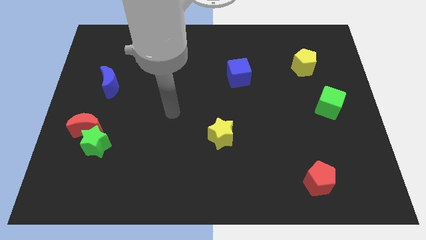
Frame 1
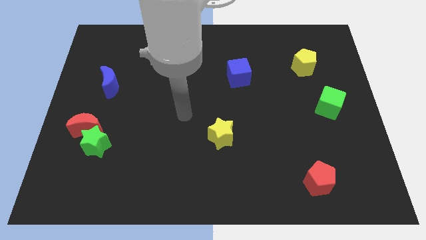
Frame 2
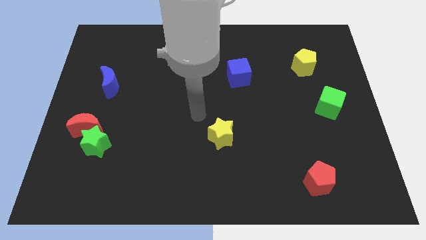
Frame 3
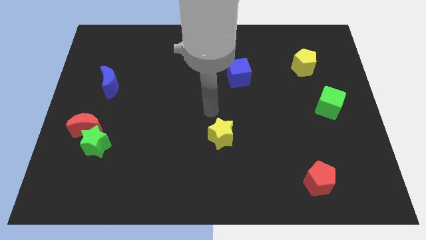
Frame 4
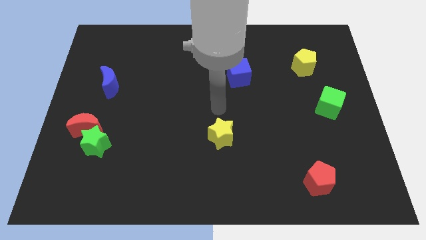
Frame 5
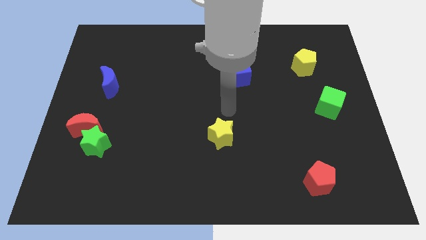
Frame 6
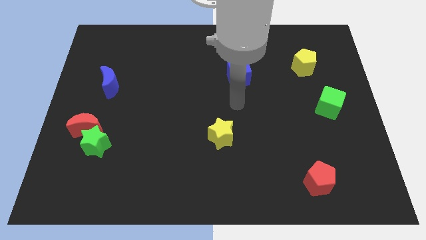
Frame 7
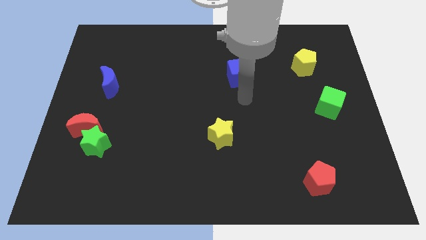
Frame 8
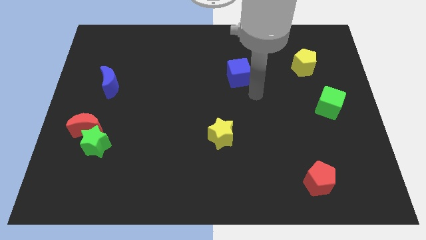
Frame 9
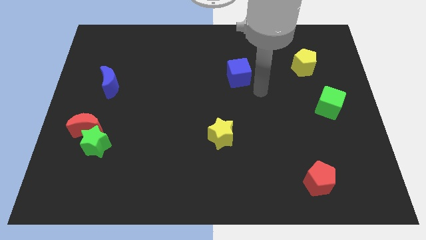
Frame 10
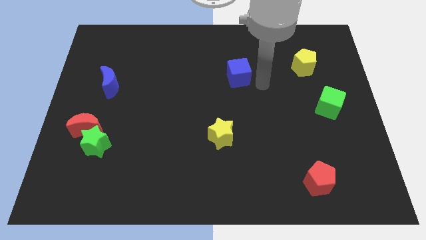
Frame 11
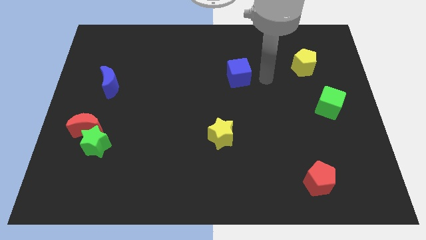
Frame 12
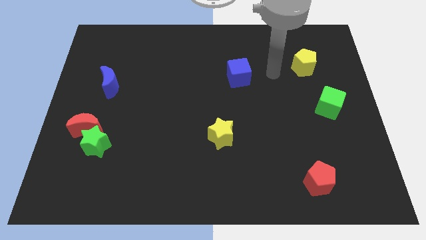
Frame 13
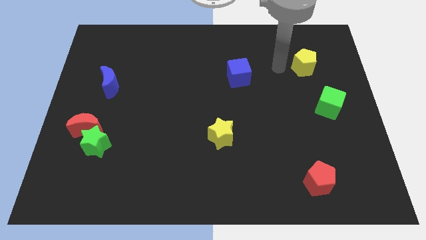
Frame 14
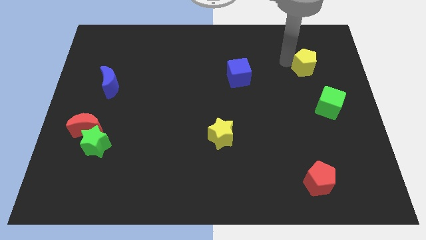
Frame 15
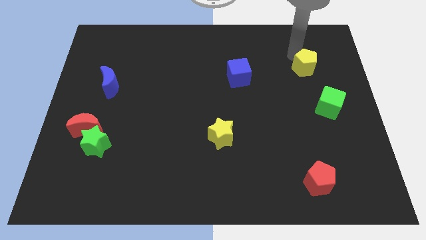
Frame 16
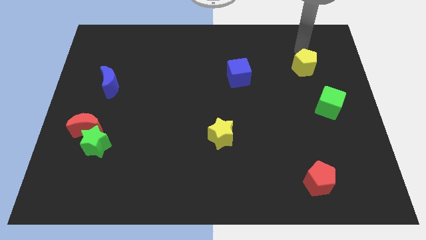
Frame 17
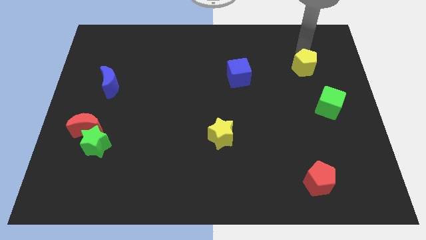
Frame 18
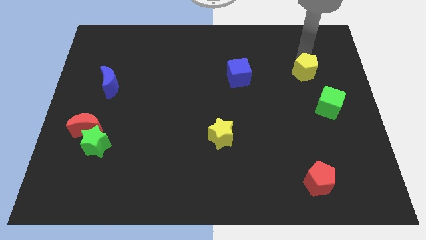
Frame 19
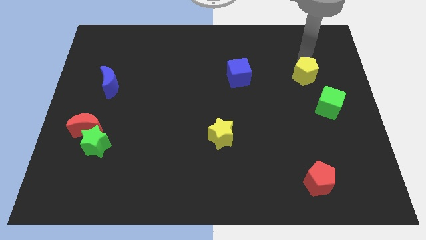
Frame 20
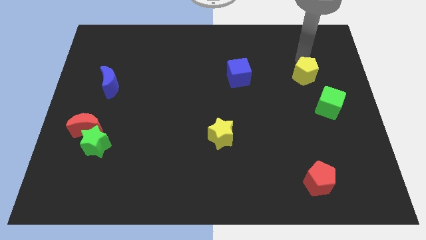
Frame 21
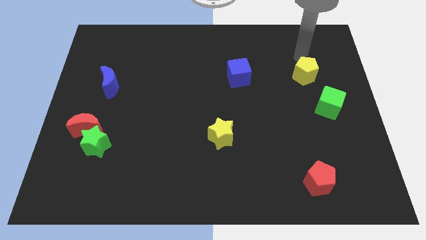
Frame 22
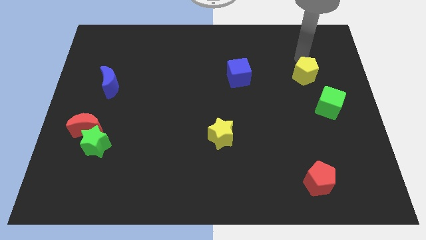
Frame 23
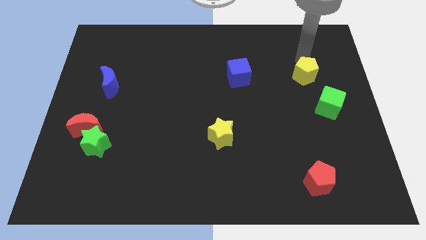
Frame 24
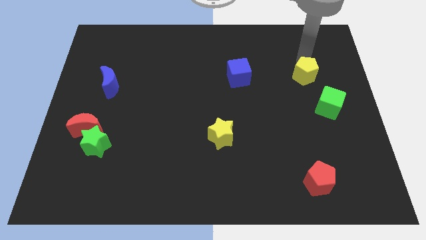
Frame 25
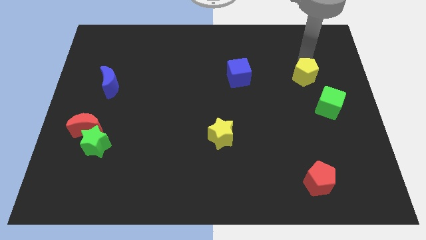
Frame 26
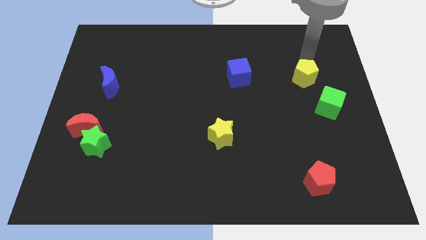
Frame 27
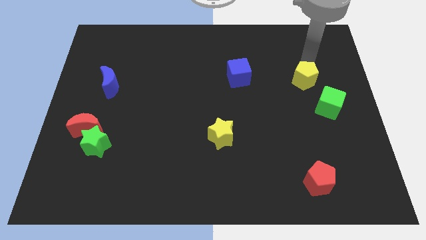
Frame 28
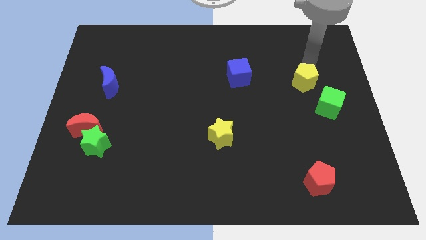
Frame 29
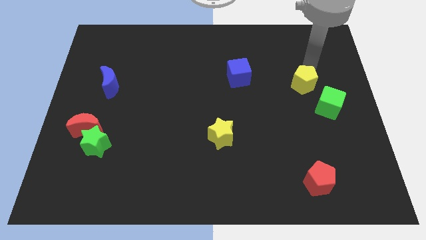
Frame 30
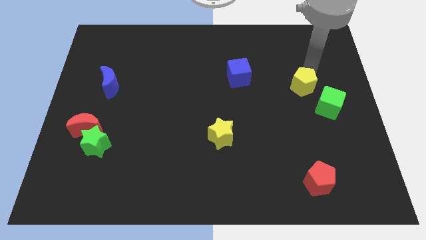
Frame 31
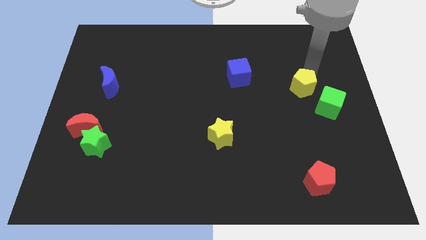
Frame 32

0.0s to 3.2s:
slide the yellow pentagon somewhat downwards

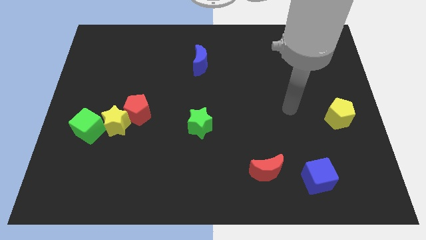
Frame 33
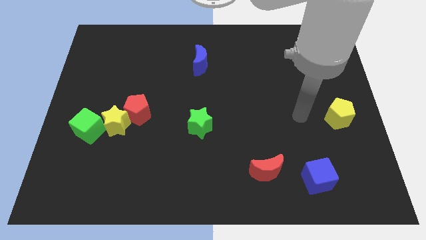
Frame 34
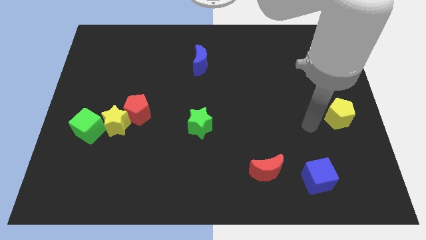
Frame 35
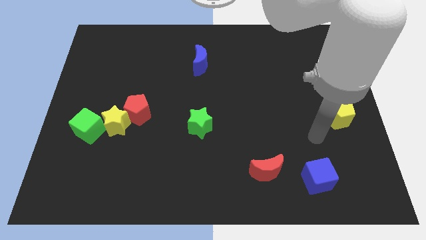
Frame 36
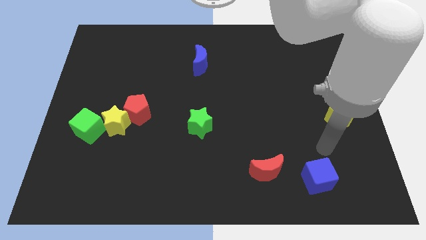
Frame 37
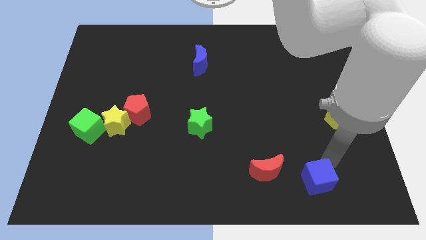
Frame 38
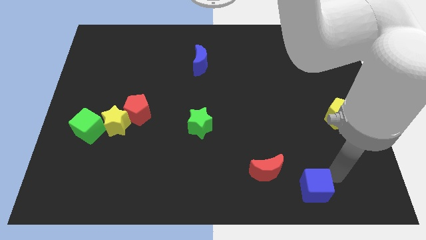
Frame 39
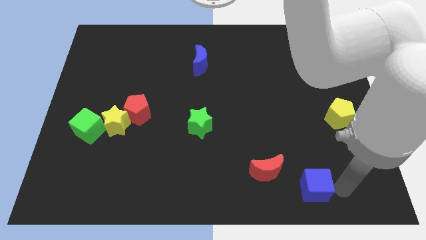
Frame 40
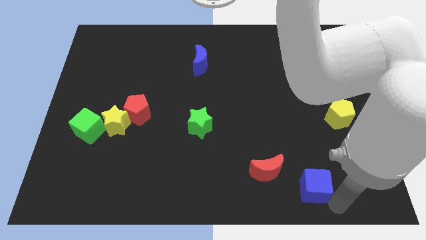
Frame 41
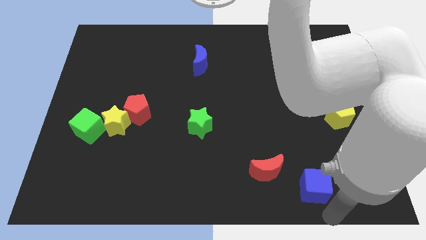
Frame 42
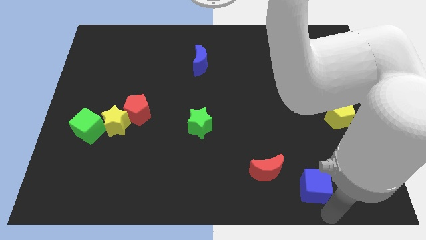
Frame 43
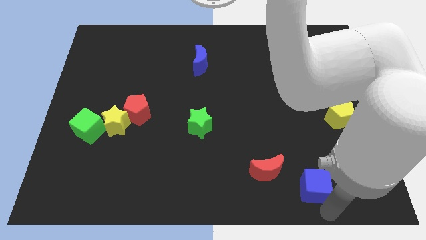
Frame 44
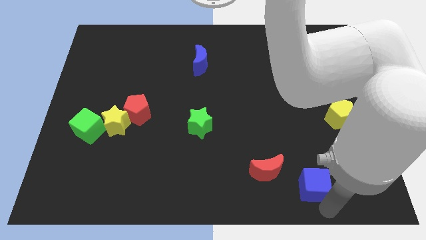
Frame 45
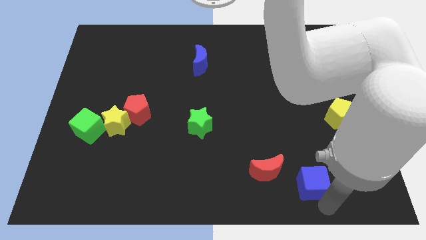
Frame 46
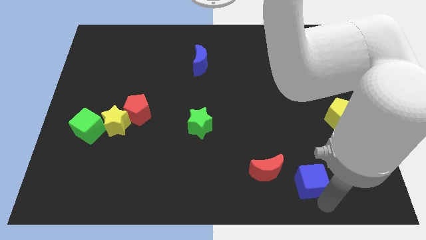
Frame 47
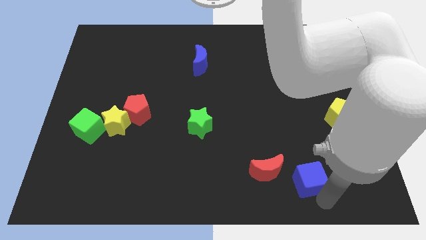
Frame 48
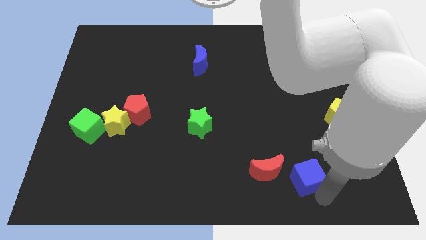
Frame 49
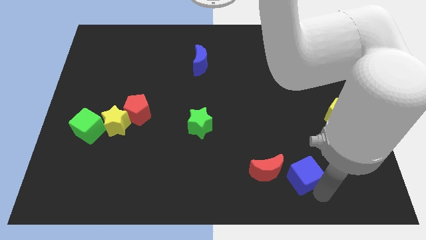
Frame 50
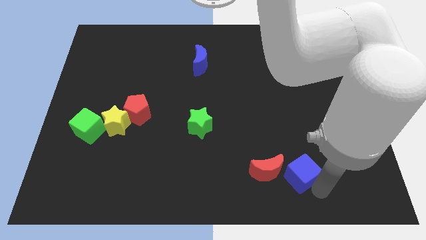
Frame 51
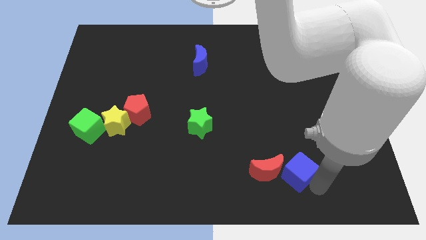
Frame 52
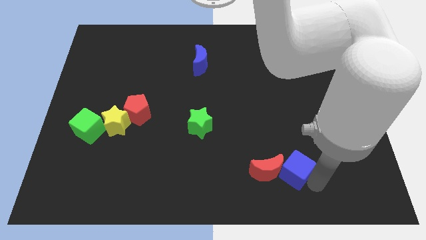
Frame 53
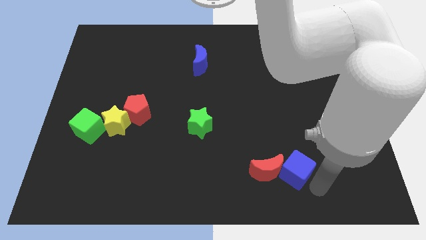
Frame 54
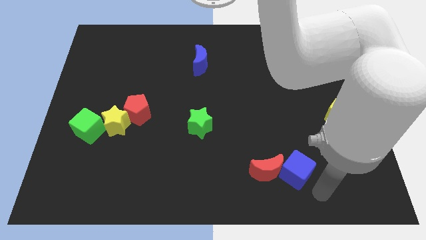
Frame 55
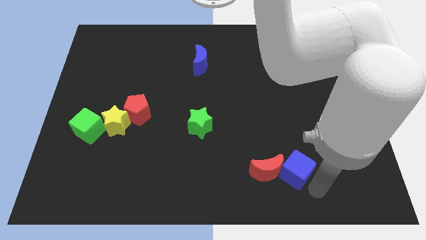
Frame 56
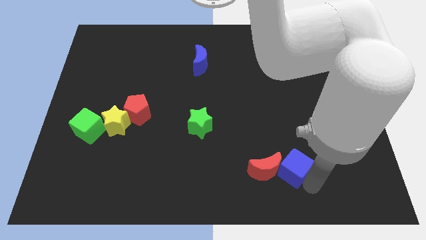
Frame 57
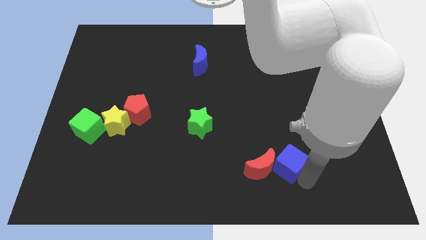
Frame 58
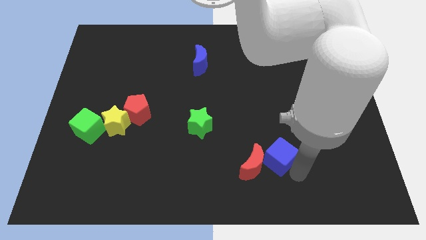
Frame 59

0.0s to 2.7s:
slide the blue cube slightly up and then left

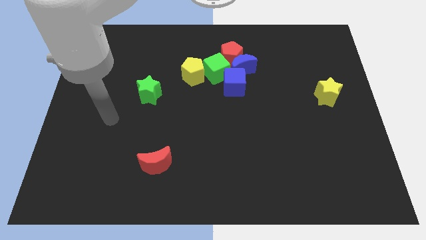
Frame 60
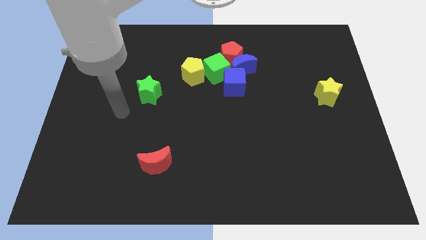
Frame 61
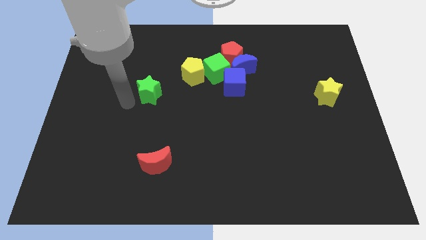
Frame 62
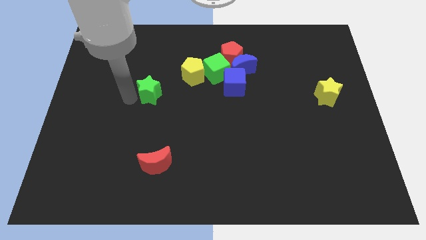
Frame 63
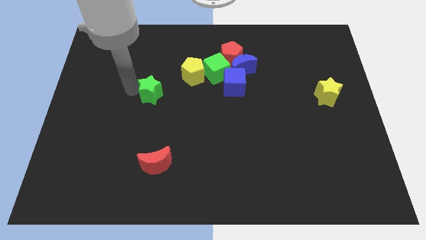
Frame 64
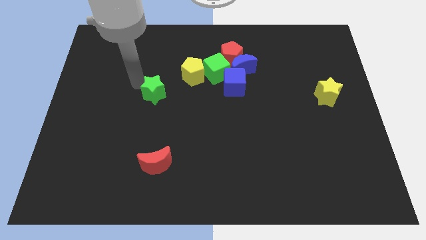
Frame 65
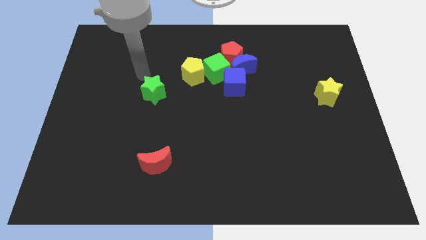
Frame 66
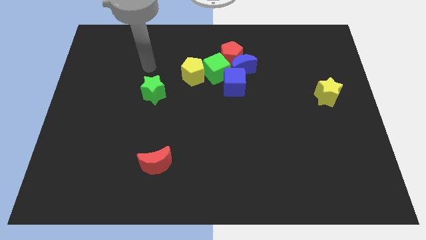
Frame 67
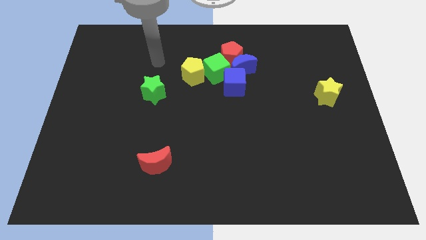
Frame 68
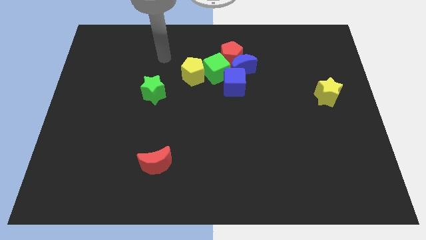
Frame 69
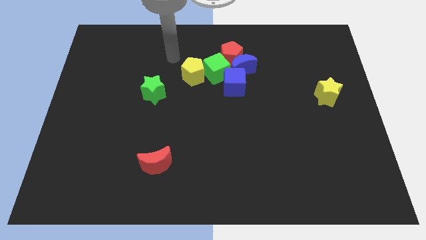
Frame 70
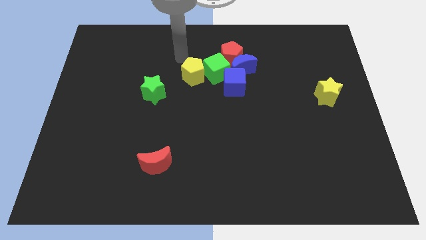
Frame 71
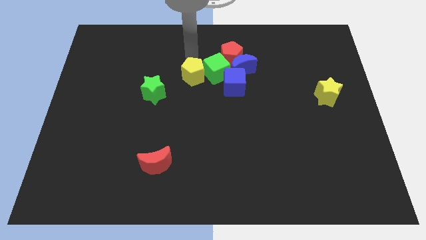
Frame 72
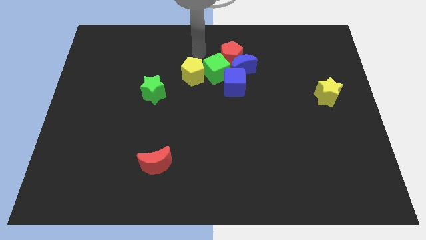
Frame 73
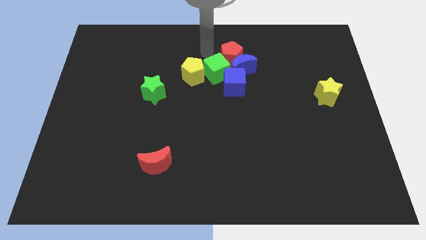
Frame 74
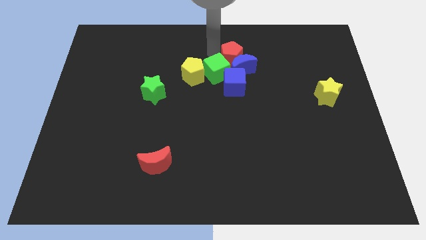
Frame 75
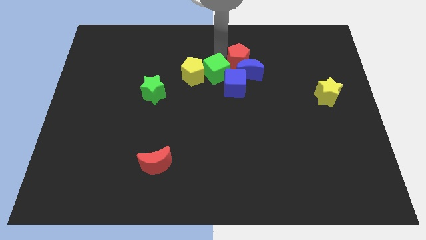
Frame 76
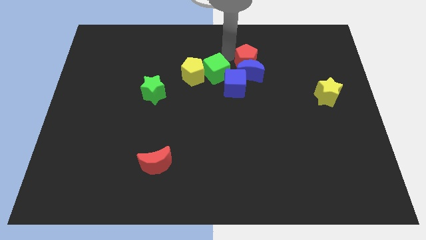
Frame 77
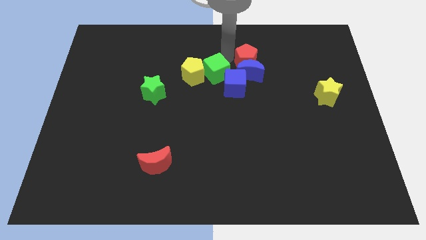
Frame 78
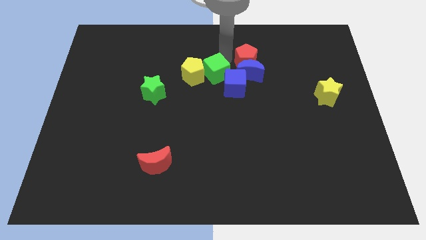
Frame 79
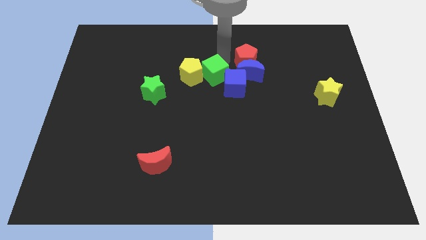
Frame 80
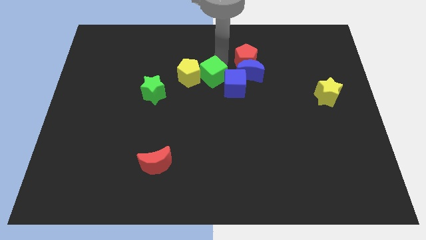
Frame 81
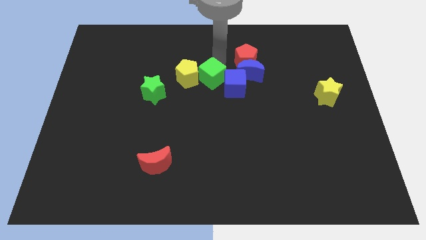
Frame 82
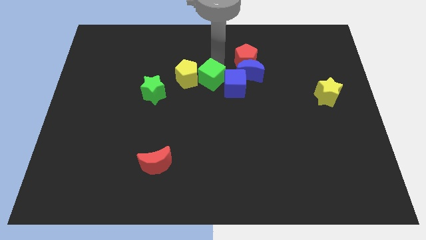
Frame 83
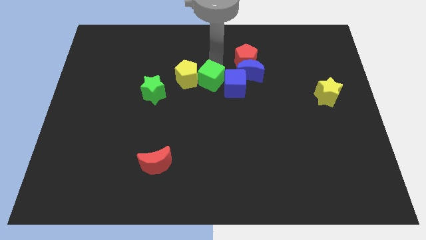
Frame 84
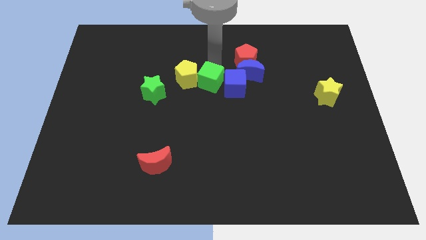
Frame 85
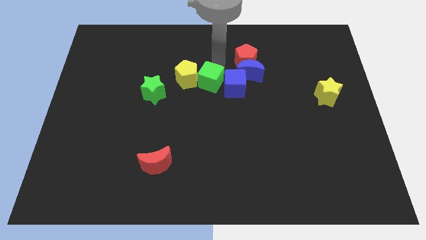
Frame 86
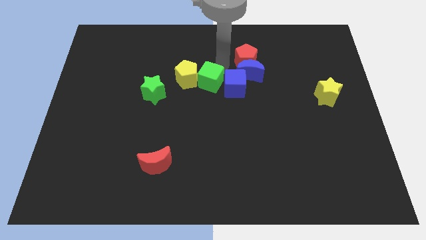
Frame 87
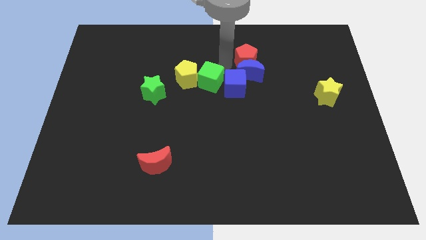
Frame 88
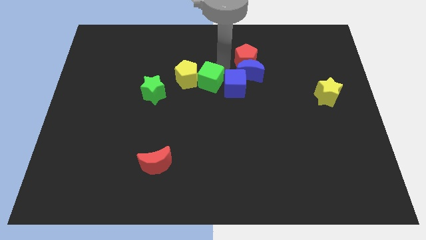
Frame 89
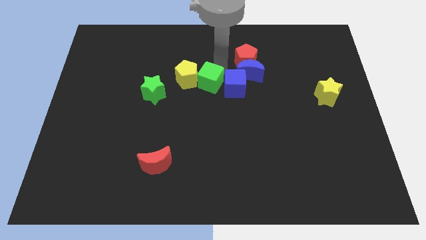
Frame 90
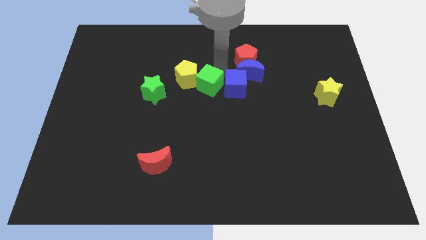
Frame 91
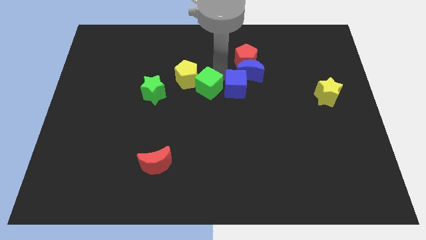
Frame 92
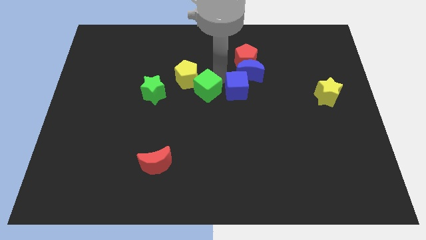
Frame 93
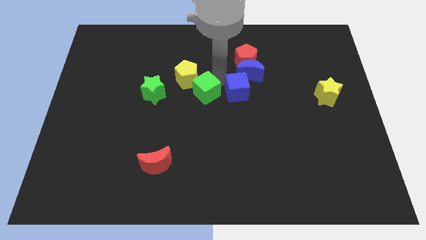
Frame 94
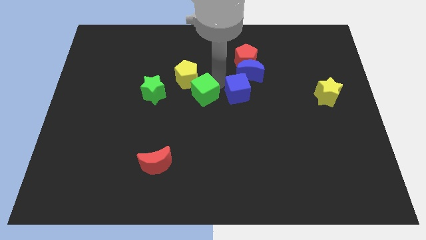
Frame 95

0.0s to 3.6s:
push the green cube downwards and left slightly
